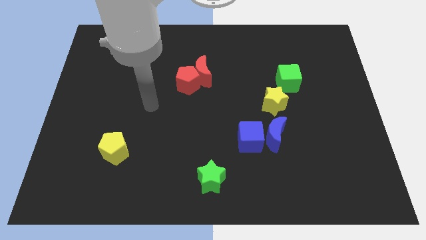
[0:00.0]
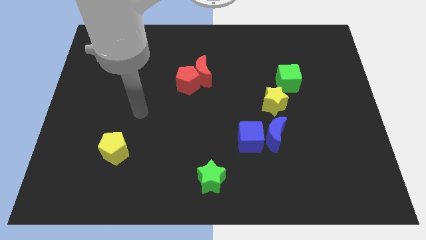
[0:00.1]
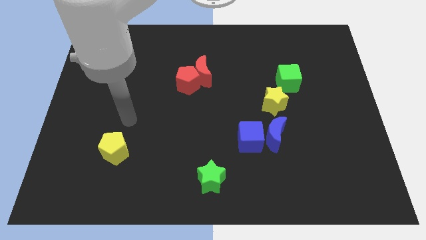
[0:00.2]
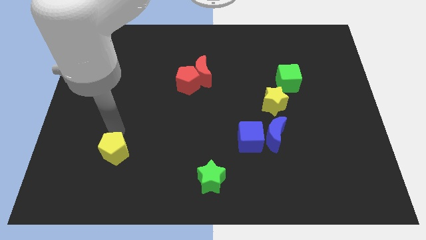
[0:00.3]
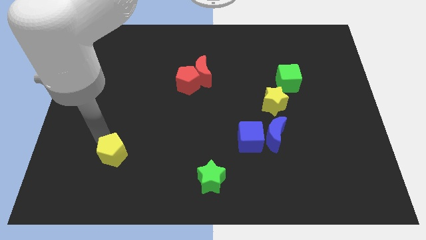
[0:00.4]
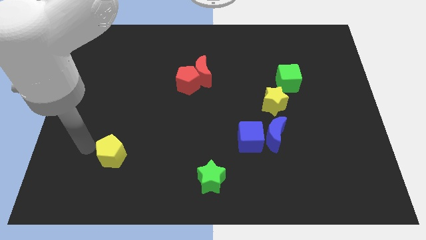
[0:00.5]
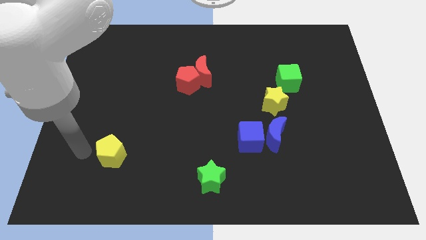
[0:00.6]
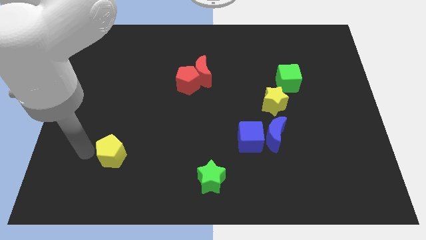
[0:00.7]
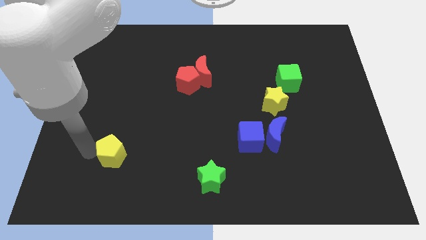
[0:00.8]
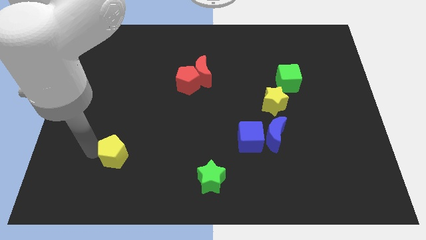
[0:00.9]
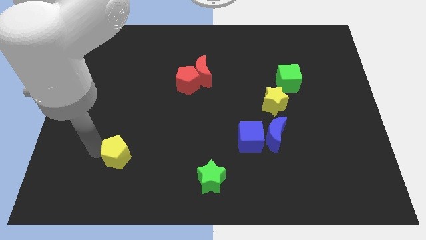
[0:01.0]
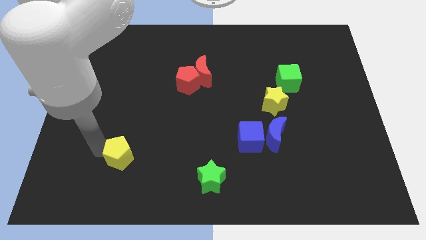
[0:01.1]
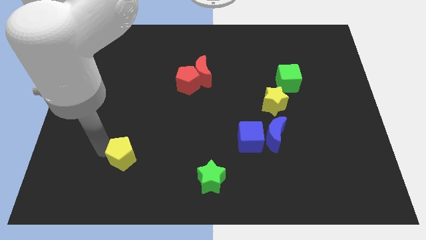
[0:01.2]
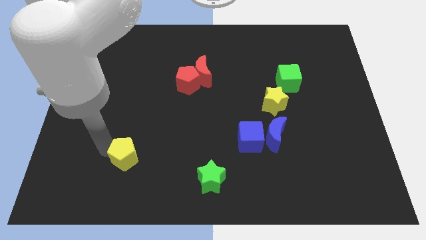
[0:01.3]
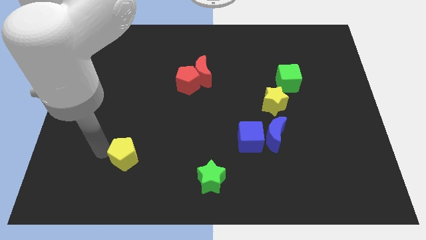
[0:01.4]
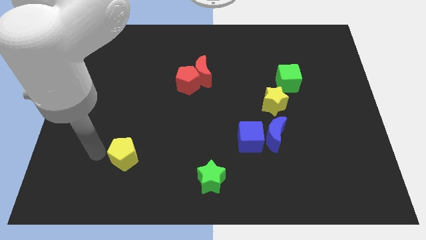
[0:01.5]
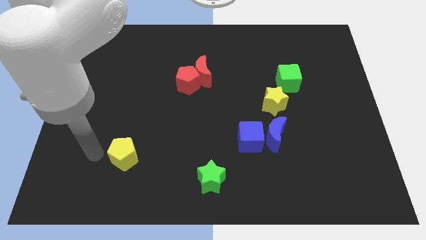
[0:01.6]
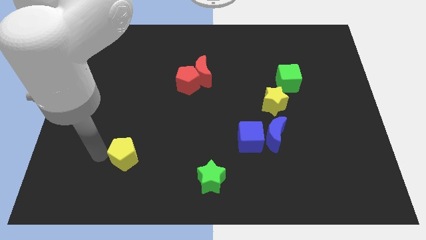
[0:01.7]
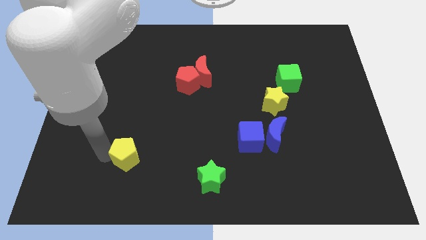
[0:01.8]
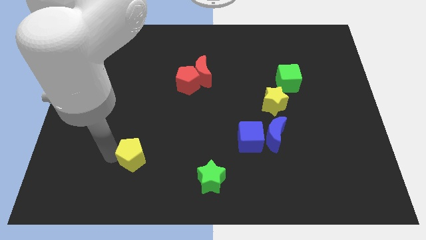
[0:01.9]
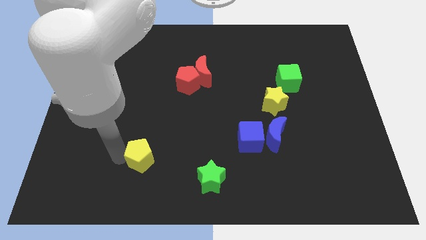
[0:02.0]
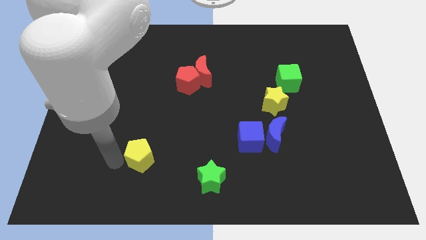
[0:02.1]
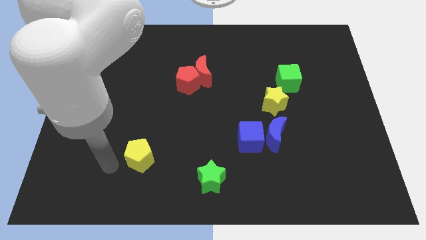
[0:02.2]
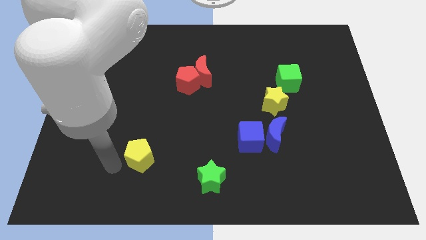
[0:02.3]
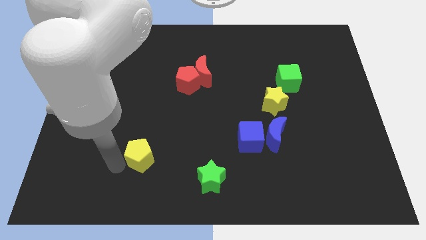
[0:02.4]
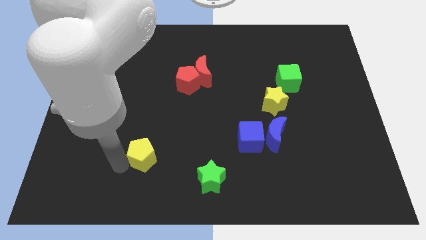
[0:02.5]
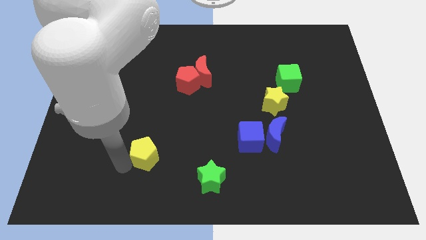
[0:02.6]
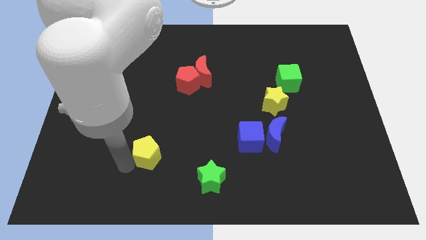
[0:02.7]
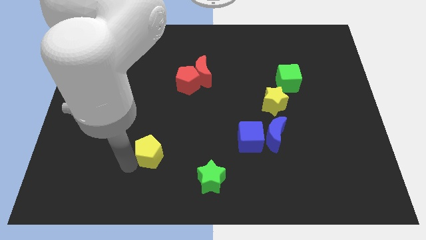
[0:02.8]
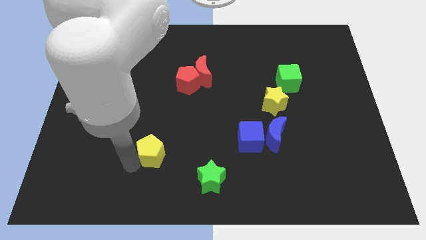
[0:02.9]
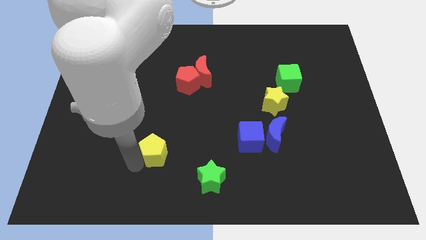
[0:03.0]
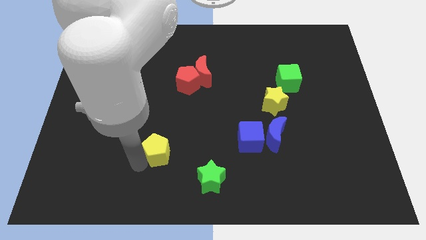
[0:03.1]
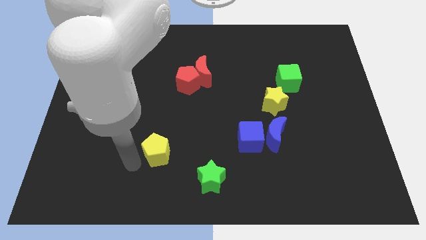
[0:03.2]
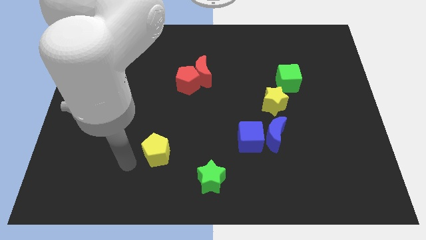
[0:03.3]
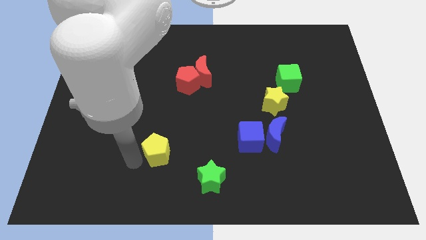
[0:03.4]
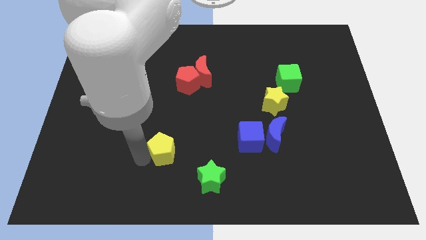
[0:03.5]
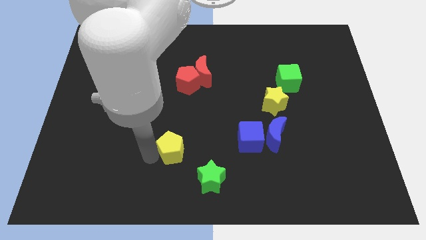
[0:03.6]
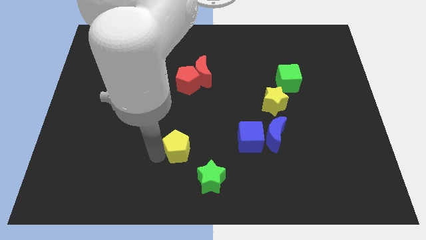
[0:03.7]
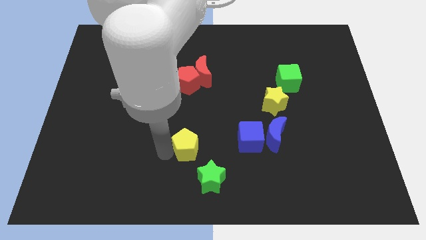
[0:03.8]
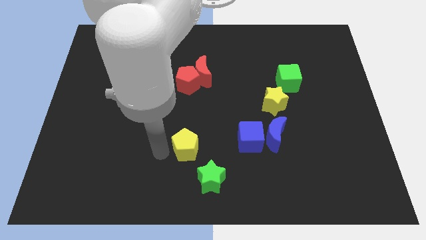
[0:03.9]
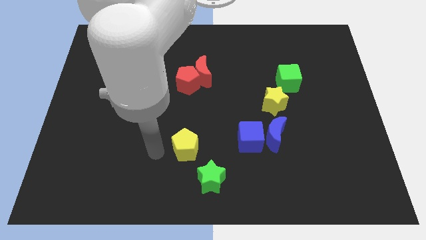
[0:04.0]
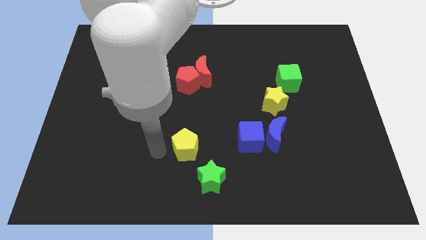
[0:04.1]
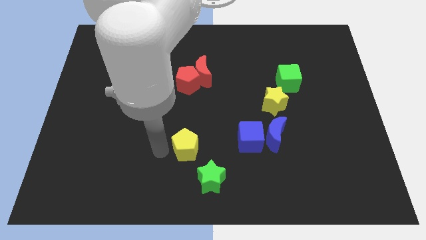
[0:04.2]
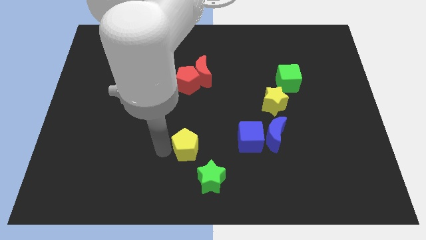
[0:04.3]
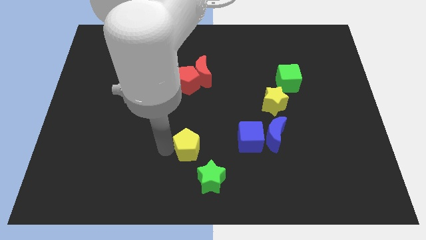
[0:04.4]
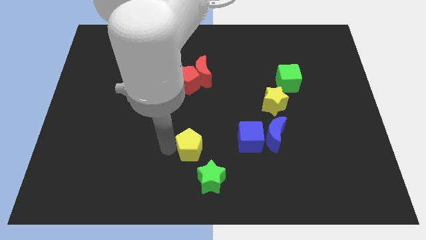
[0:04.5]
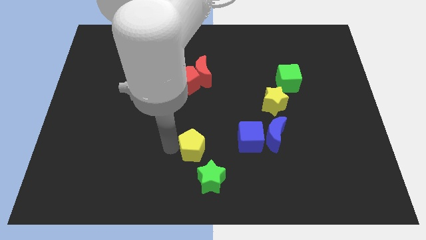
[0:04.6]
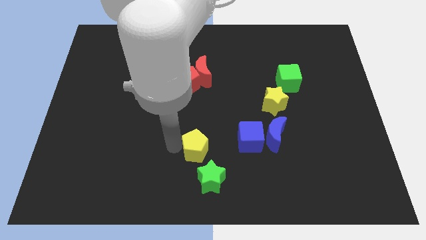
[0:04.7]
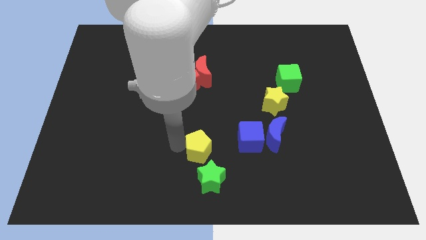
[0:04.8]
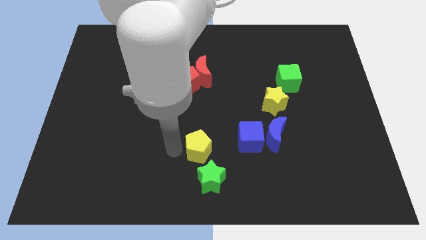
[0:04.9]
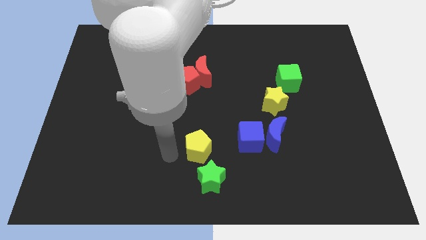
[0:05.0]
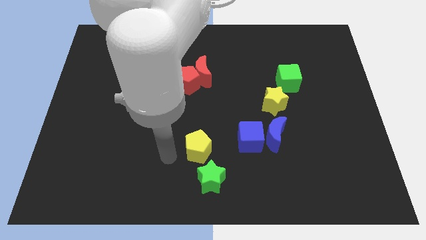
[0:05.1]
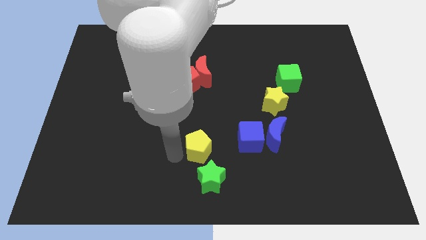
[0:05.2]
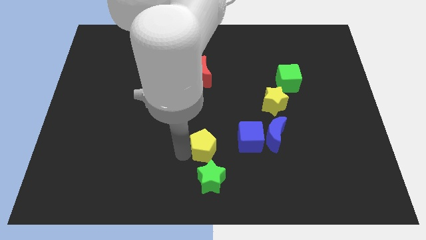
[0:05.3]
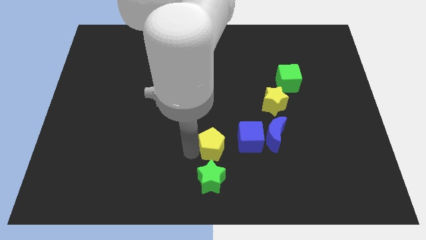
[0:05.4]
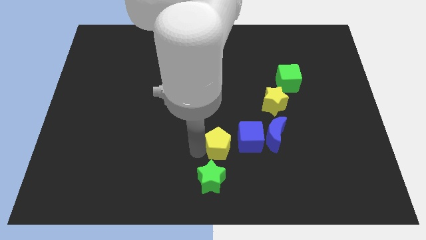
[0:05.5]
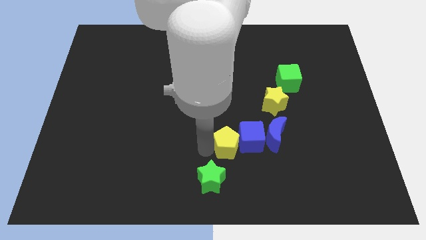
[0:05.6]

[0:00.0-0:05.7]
push the yellow pentagon close to the blue cube

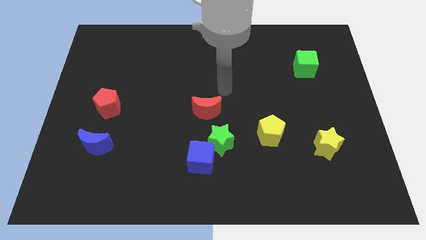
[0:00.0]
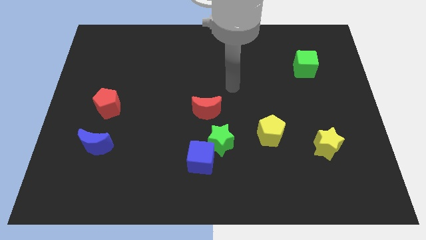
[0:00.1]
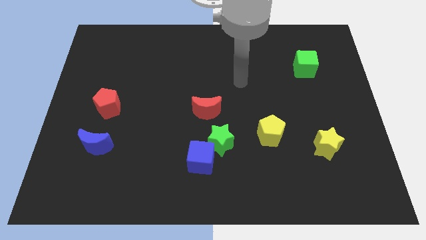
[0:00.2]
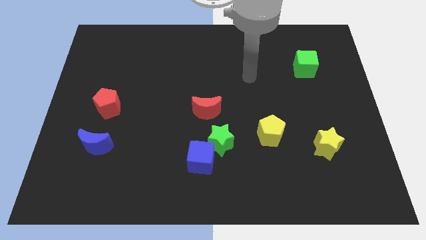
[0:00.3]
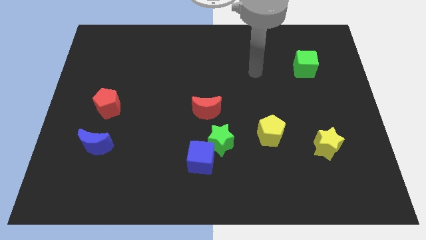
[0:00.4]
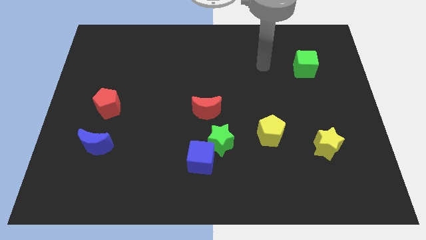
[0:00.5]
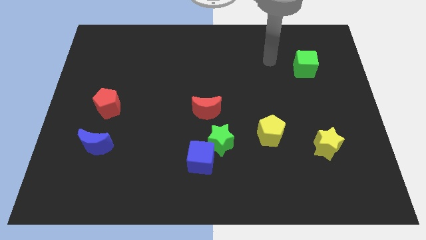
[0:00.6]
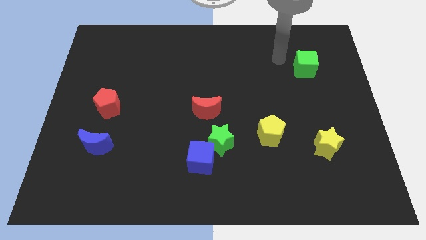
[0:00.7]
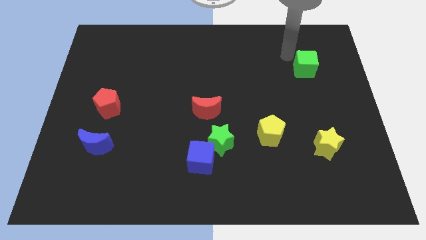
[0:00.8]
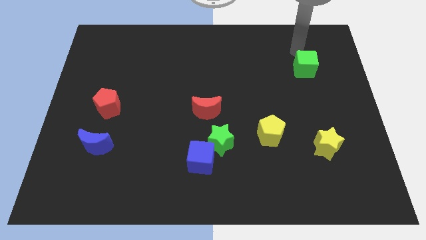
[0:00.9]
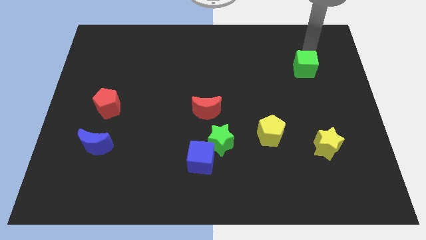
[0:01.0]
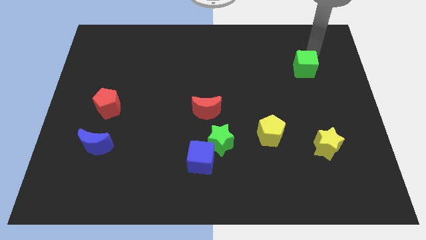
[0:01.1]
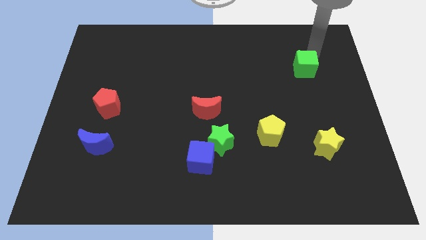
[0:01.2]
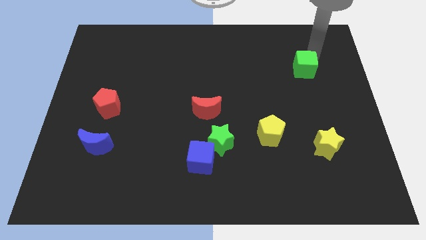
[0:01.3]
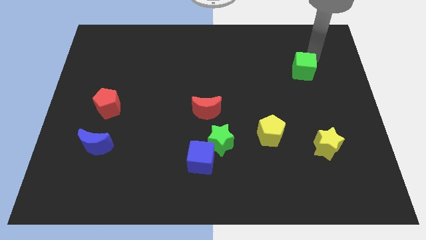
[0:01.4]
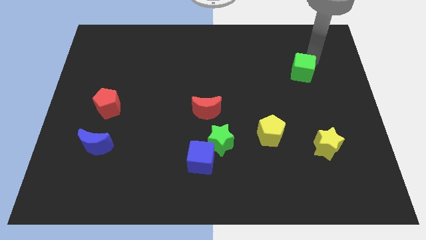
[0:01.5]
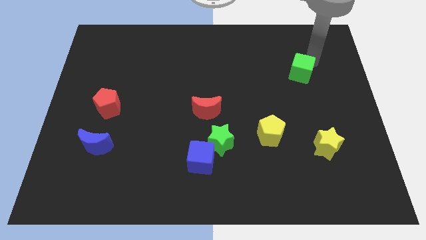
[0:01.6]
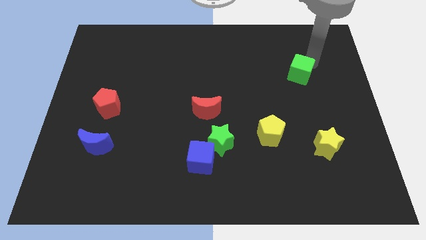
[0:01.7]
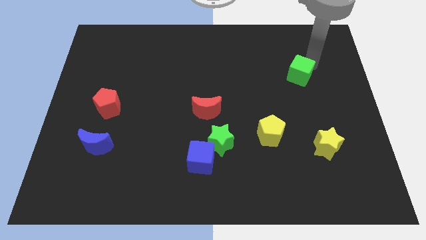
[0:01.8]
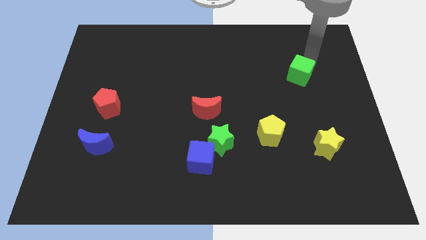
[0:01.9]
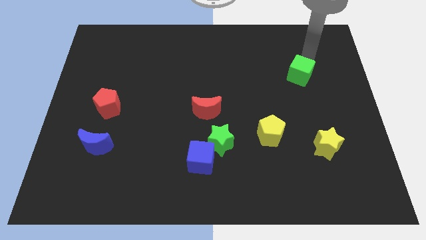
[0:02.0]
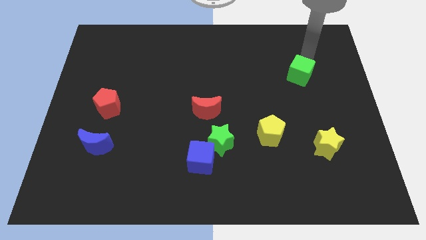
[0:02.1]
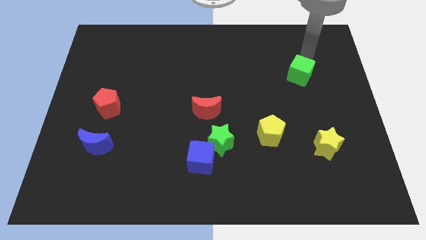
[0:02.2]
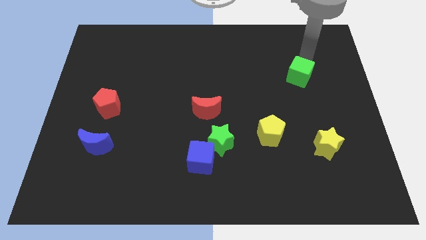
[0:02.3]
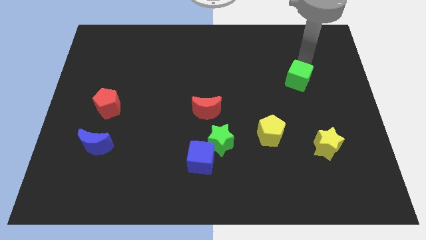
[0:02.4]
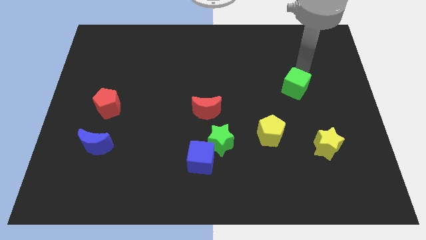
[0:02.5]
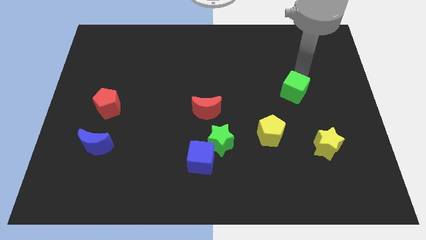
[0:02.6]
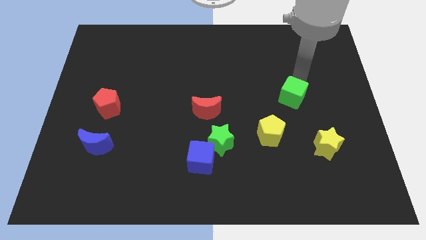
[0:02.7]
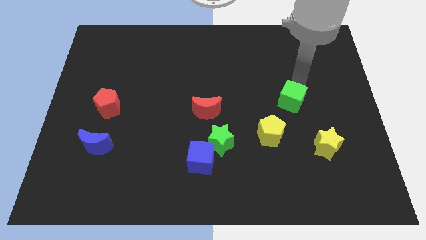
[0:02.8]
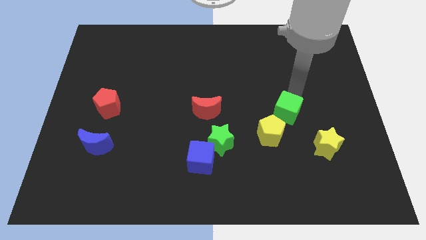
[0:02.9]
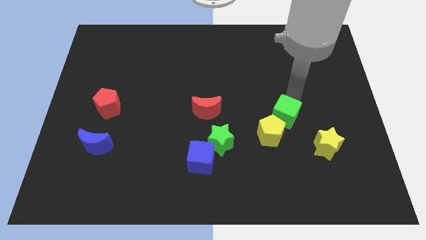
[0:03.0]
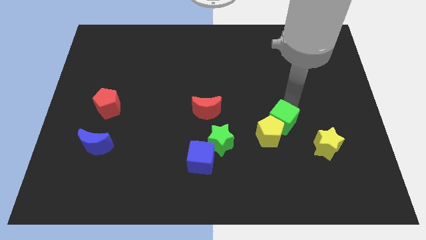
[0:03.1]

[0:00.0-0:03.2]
move the green cube towards the yellow pentagon
